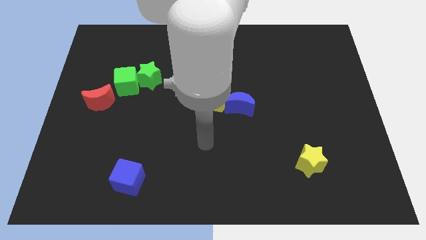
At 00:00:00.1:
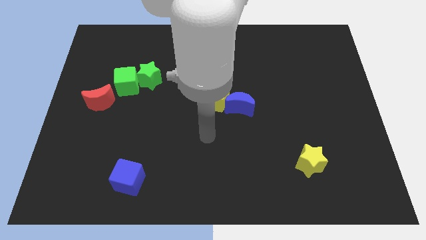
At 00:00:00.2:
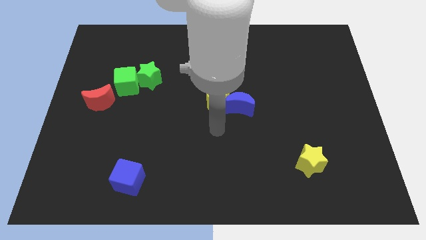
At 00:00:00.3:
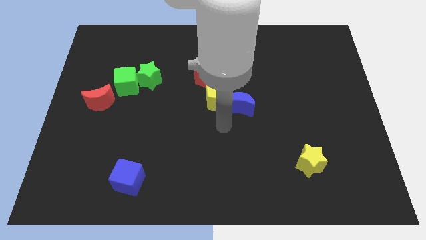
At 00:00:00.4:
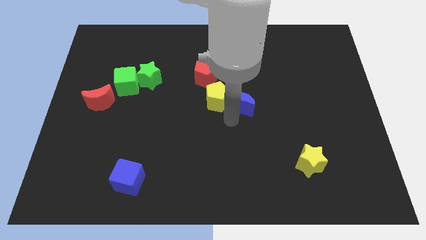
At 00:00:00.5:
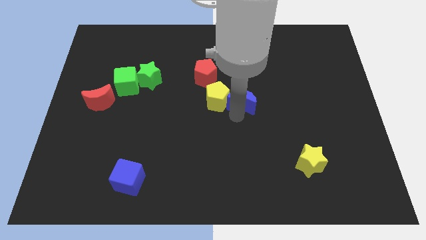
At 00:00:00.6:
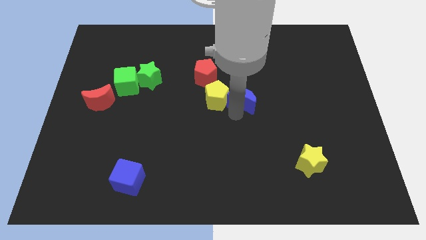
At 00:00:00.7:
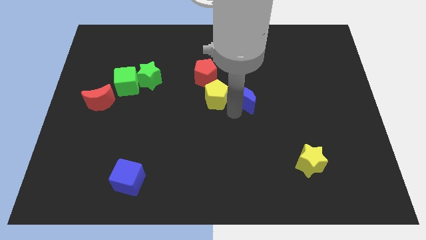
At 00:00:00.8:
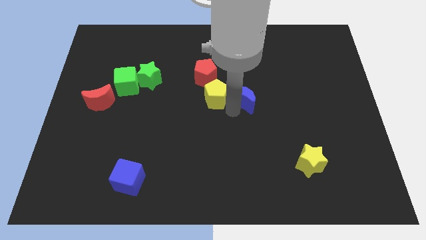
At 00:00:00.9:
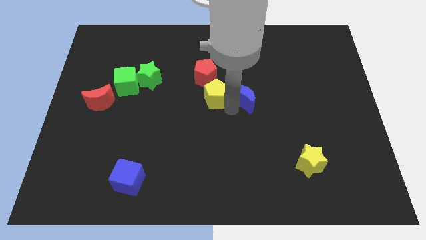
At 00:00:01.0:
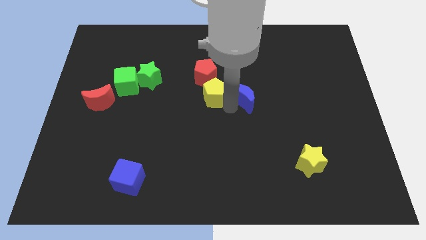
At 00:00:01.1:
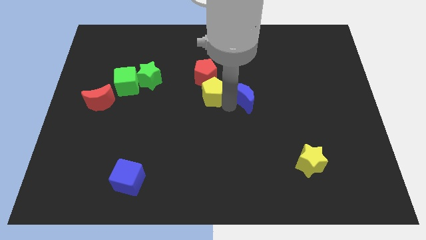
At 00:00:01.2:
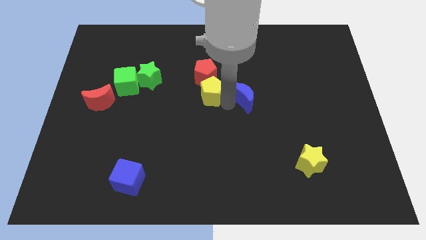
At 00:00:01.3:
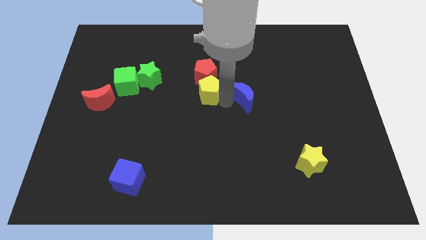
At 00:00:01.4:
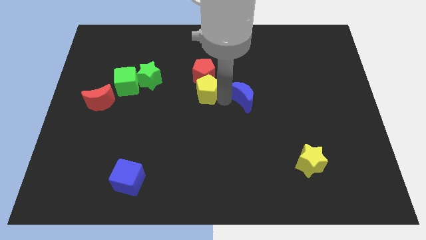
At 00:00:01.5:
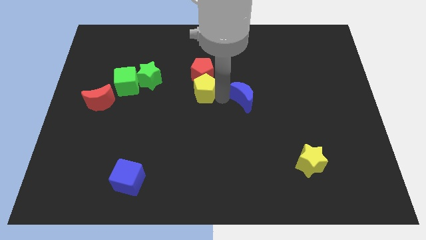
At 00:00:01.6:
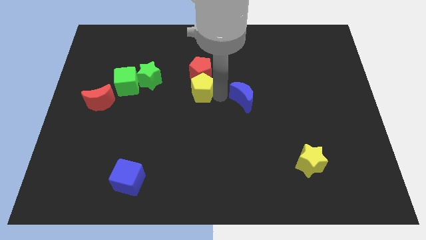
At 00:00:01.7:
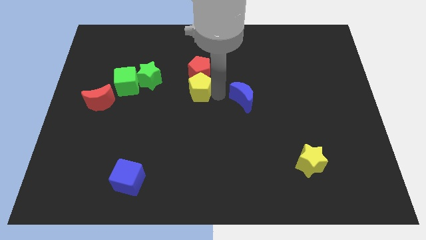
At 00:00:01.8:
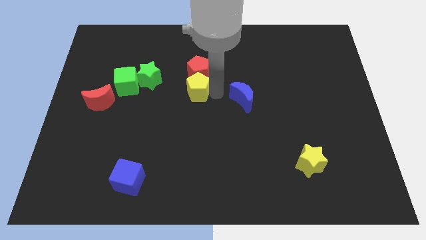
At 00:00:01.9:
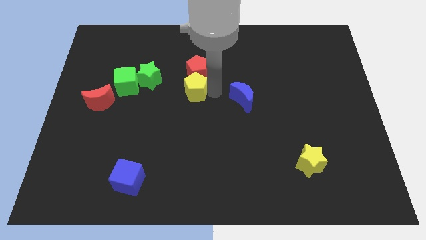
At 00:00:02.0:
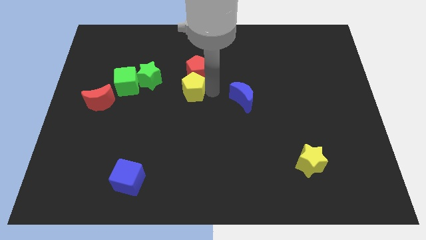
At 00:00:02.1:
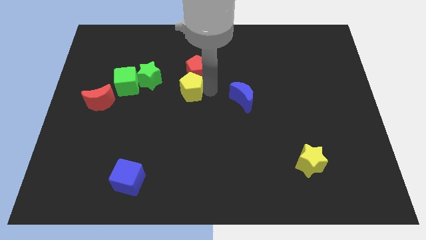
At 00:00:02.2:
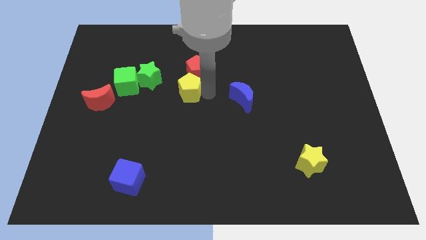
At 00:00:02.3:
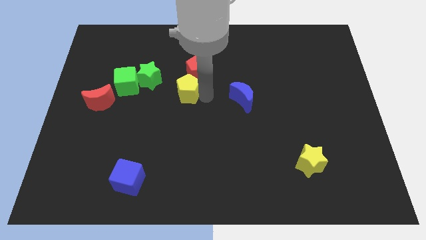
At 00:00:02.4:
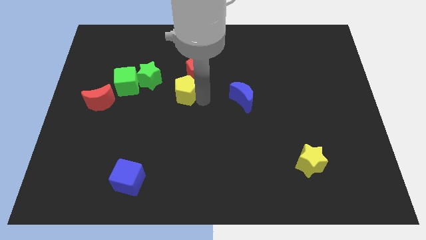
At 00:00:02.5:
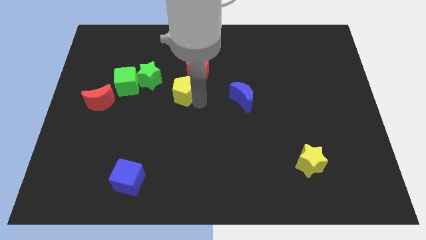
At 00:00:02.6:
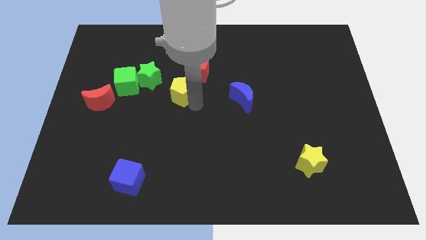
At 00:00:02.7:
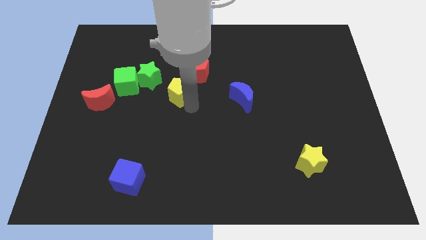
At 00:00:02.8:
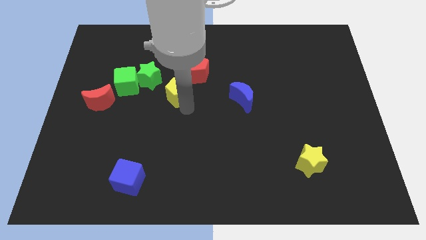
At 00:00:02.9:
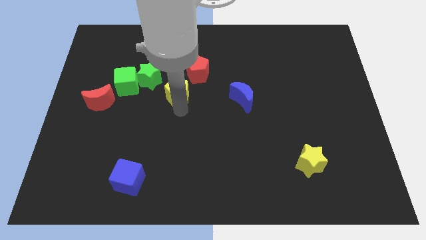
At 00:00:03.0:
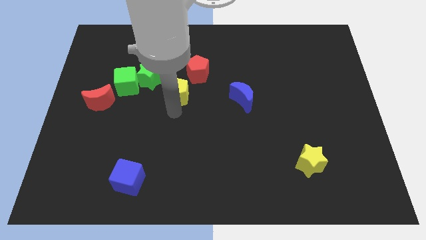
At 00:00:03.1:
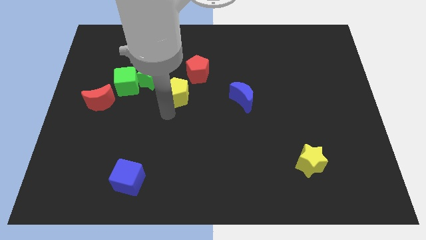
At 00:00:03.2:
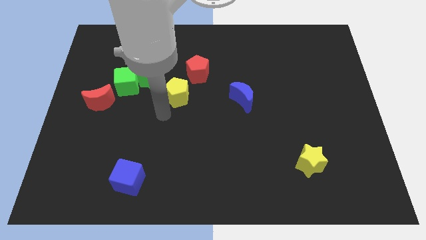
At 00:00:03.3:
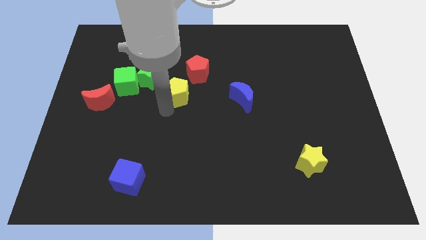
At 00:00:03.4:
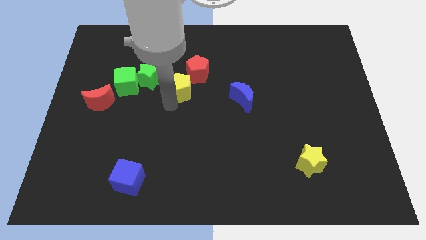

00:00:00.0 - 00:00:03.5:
push the yellow pentagon somewhat up and then left

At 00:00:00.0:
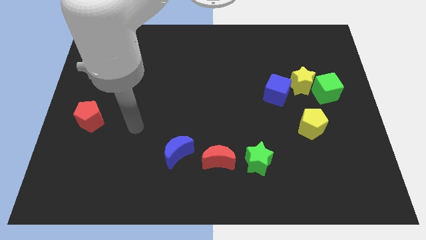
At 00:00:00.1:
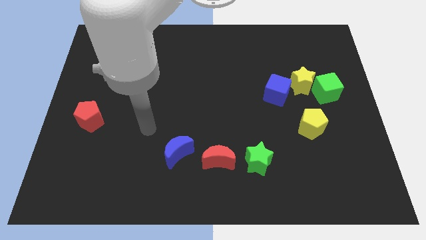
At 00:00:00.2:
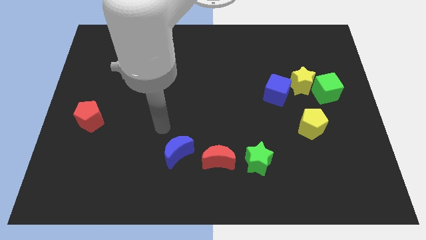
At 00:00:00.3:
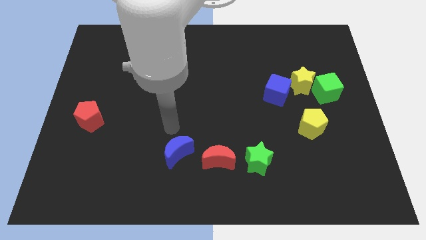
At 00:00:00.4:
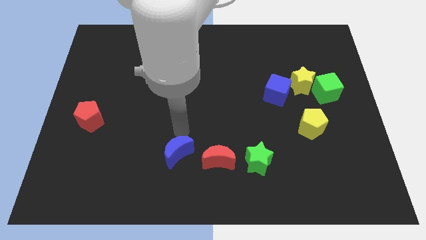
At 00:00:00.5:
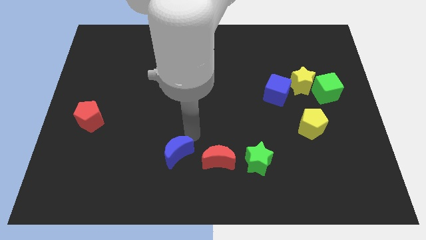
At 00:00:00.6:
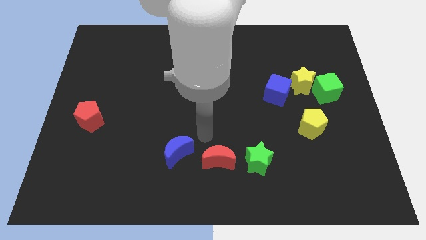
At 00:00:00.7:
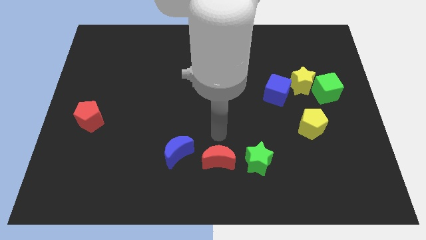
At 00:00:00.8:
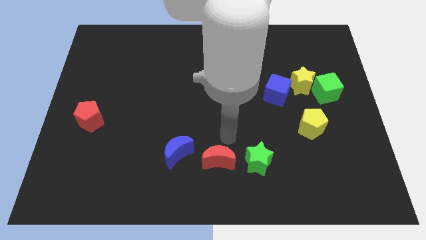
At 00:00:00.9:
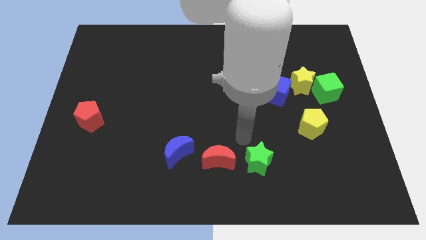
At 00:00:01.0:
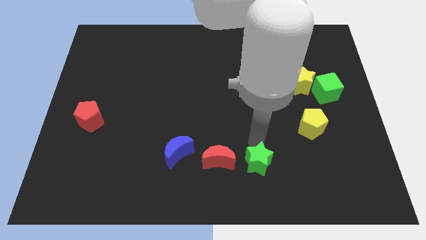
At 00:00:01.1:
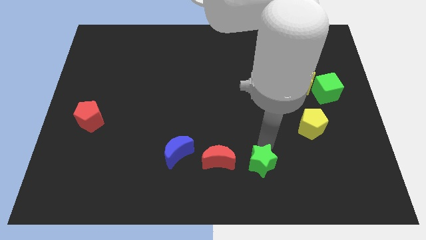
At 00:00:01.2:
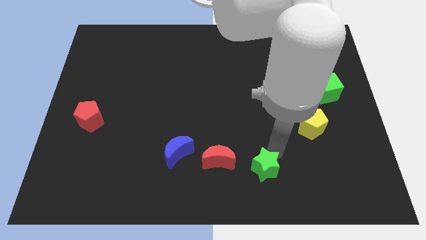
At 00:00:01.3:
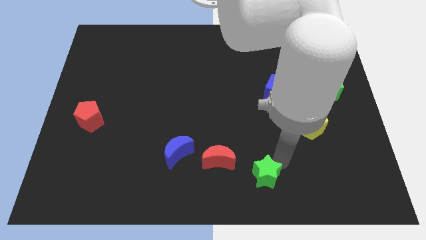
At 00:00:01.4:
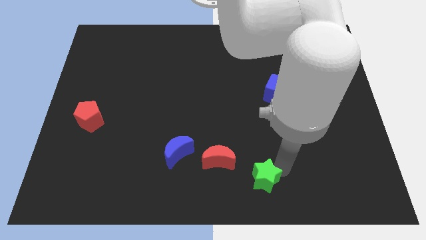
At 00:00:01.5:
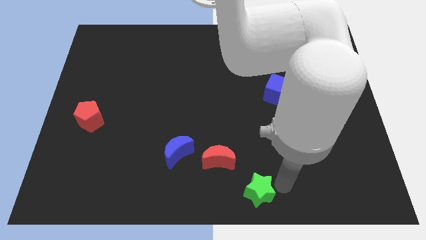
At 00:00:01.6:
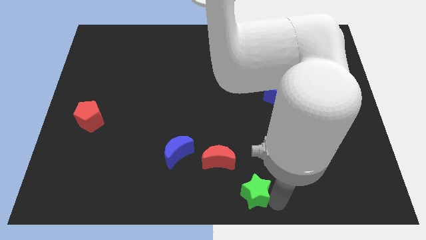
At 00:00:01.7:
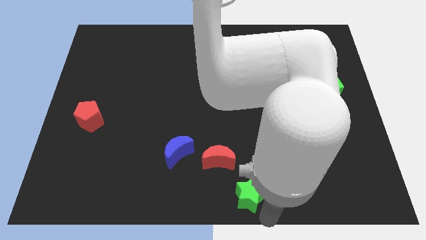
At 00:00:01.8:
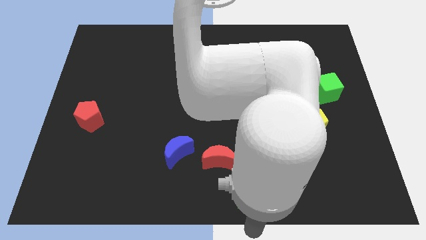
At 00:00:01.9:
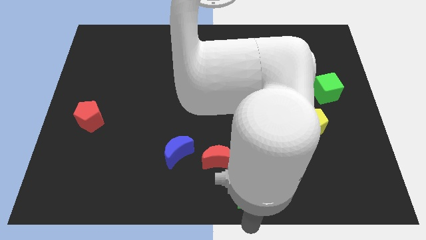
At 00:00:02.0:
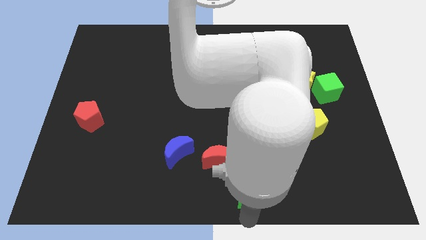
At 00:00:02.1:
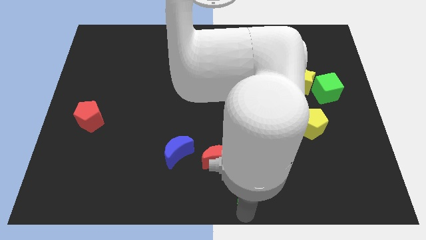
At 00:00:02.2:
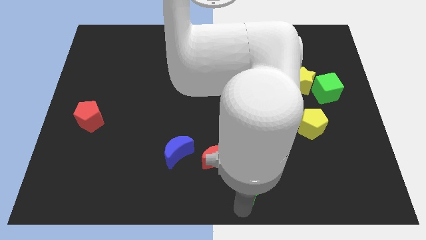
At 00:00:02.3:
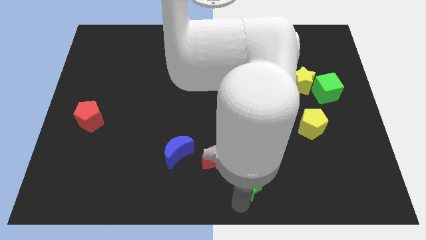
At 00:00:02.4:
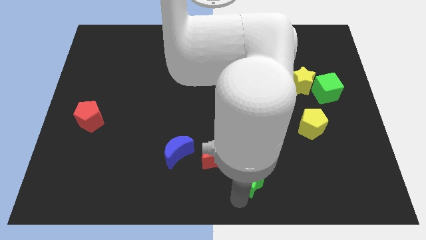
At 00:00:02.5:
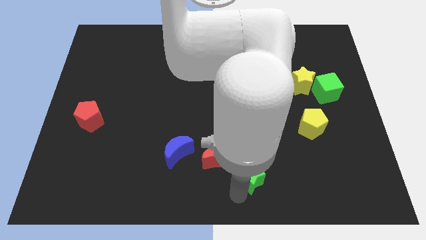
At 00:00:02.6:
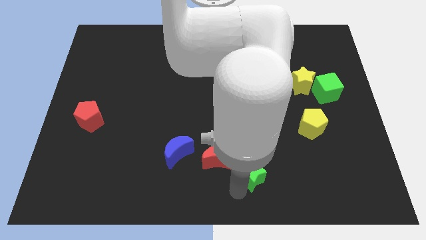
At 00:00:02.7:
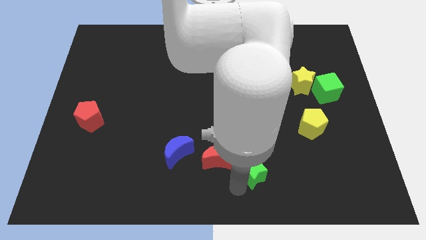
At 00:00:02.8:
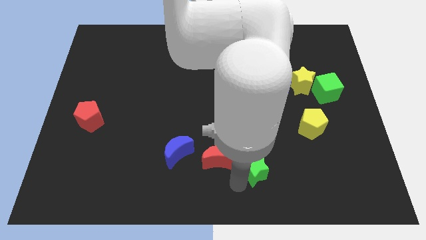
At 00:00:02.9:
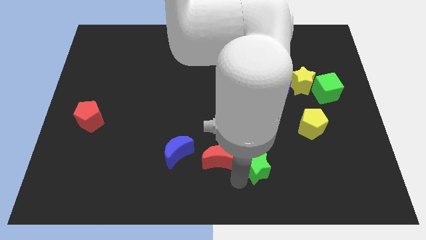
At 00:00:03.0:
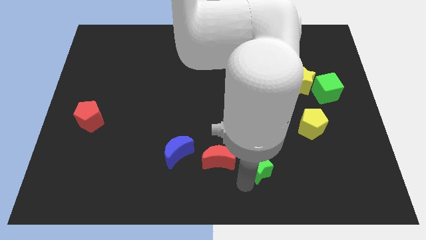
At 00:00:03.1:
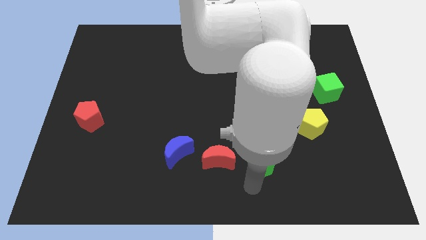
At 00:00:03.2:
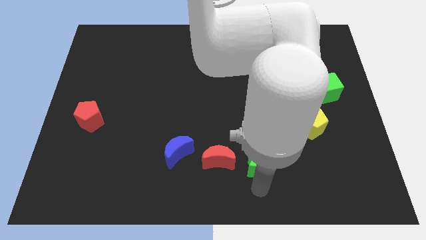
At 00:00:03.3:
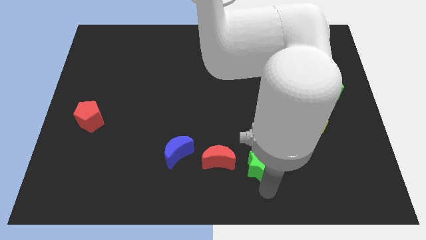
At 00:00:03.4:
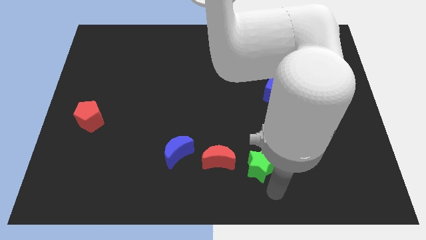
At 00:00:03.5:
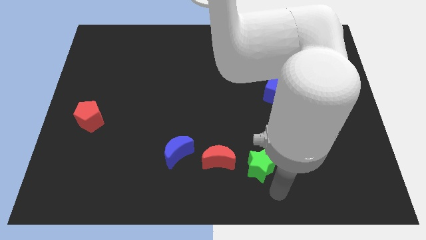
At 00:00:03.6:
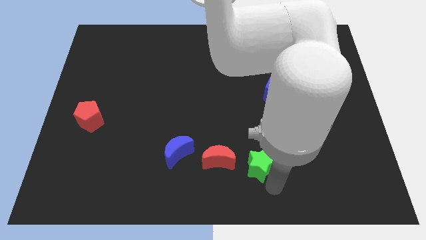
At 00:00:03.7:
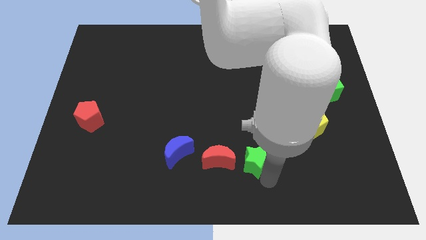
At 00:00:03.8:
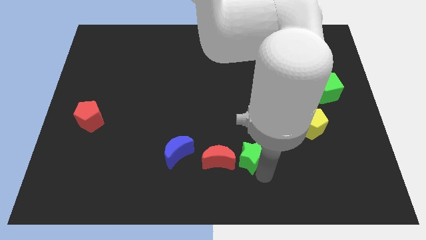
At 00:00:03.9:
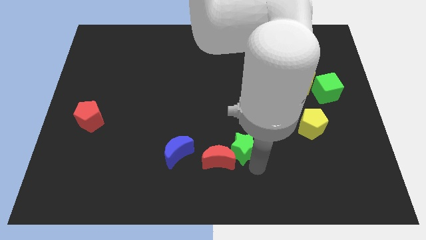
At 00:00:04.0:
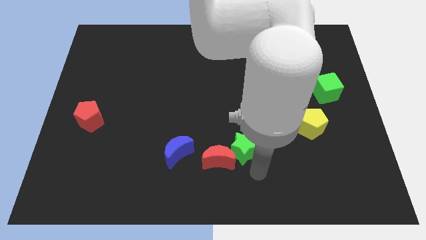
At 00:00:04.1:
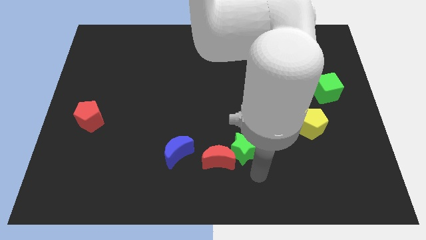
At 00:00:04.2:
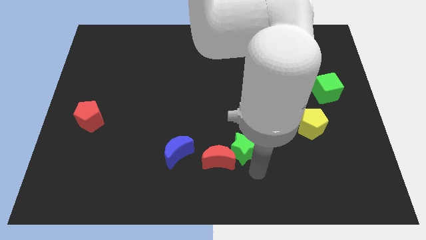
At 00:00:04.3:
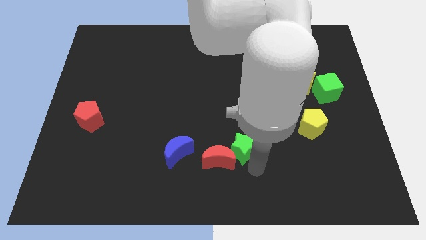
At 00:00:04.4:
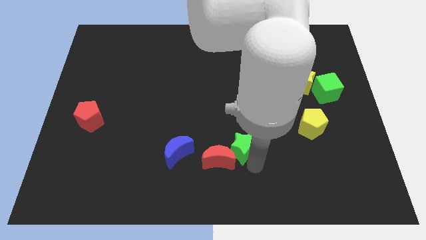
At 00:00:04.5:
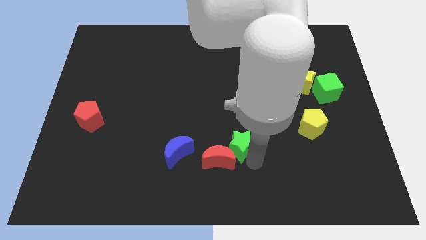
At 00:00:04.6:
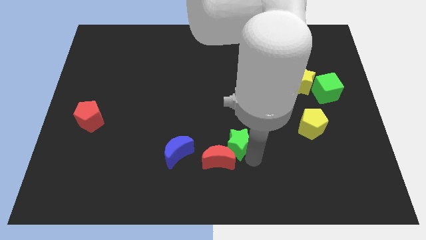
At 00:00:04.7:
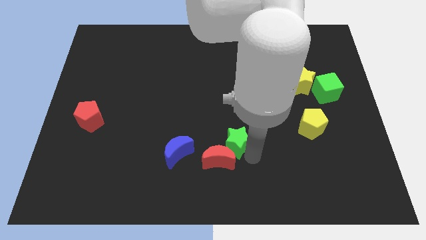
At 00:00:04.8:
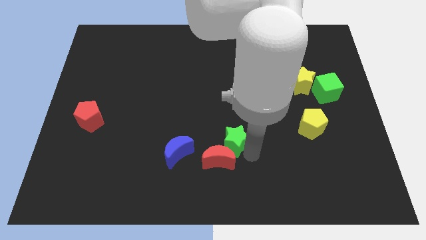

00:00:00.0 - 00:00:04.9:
slightly push the green star upwards and then left
